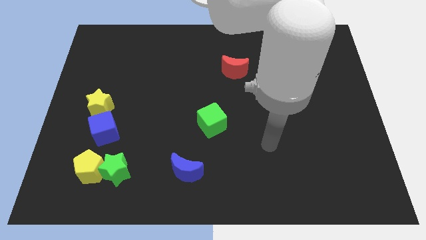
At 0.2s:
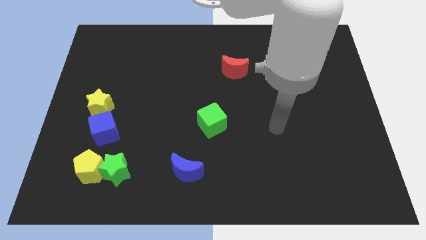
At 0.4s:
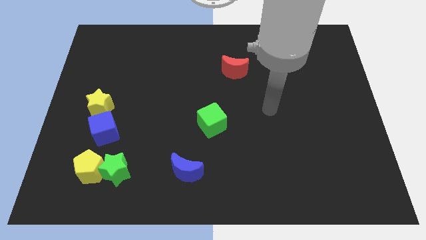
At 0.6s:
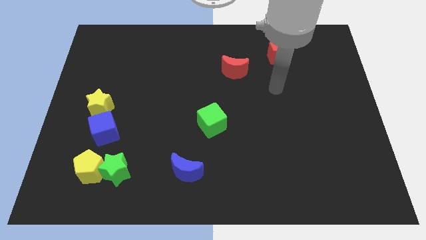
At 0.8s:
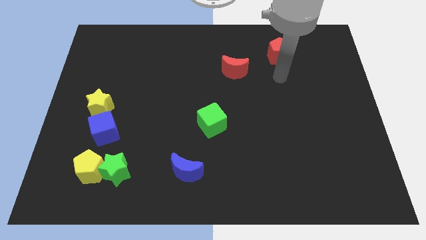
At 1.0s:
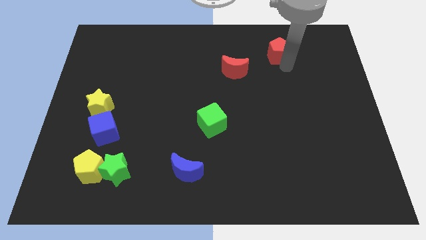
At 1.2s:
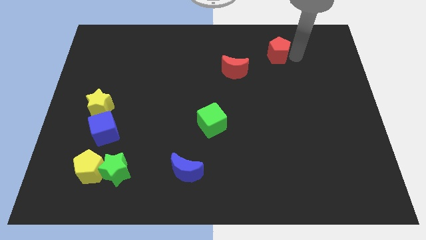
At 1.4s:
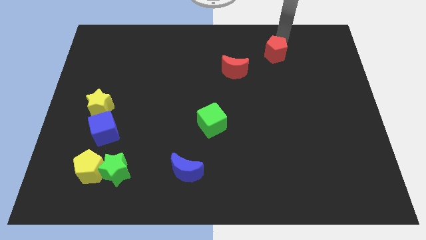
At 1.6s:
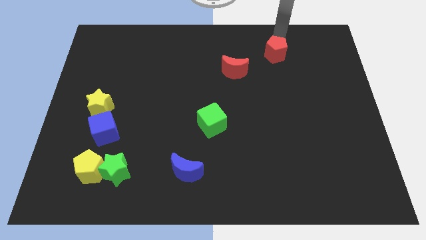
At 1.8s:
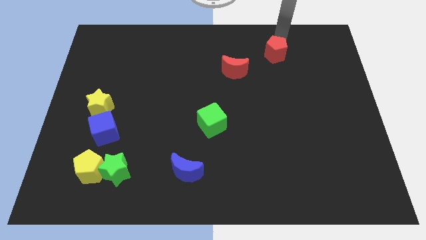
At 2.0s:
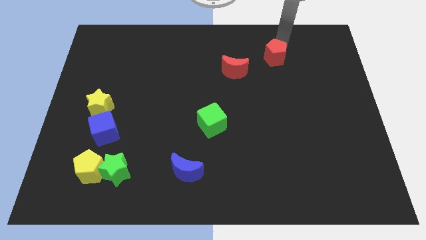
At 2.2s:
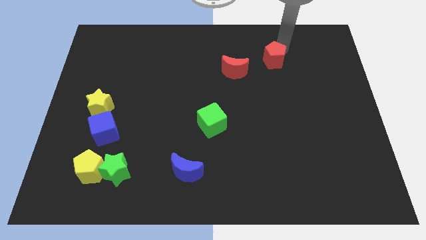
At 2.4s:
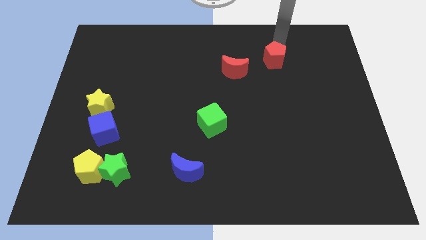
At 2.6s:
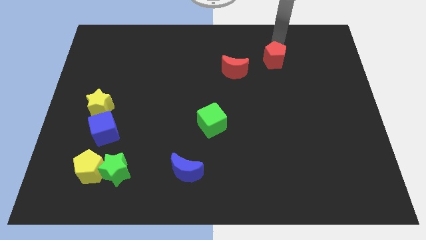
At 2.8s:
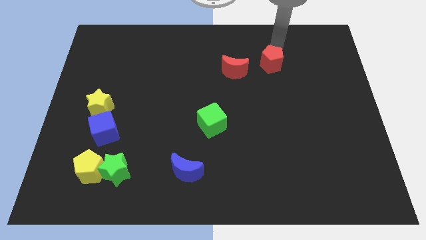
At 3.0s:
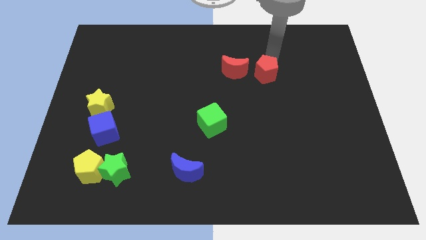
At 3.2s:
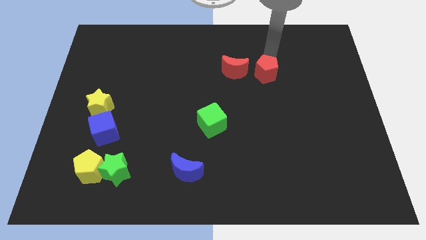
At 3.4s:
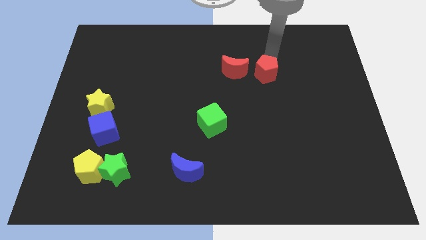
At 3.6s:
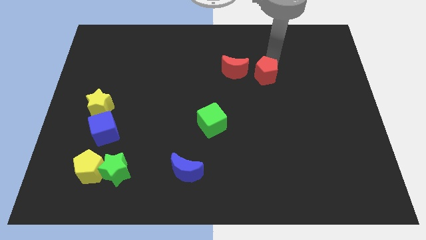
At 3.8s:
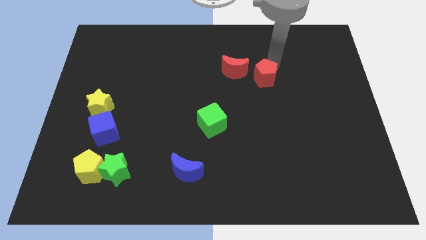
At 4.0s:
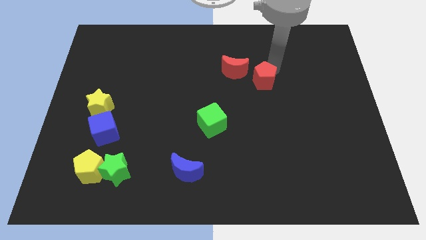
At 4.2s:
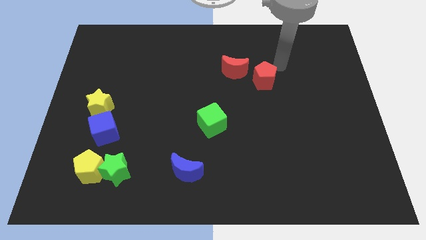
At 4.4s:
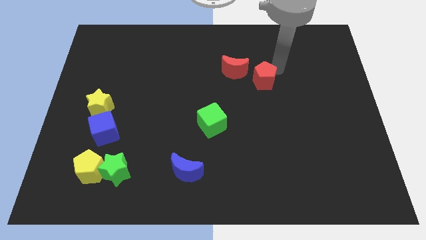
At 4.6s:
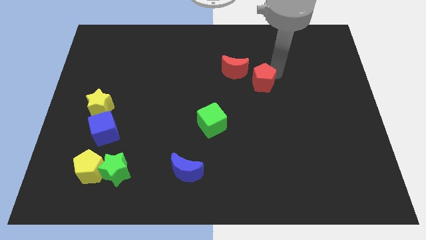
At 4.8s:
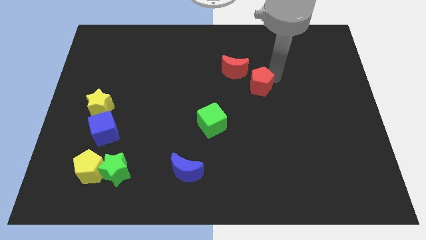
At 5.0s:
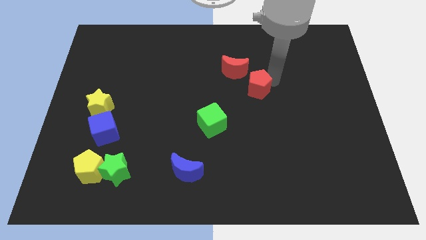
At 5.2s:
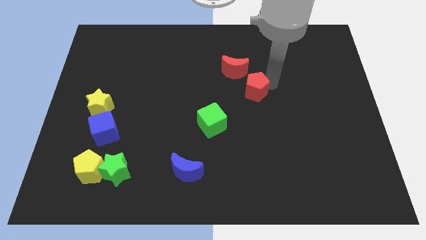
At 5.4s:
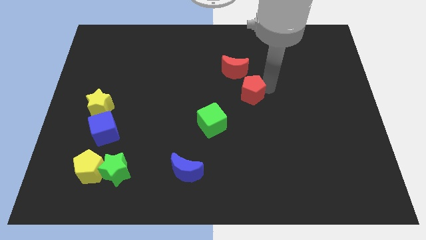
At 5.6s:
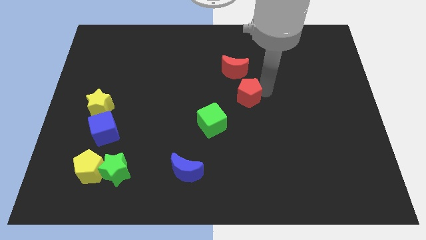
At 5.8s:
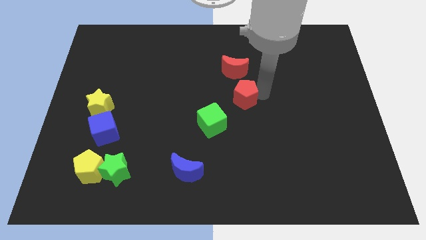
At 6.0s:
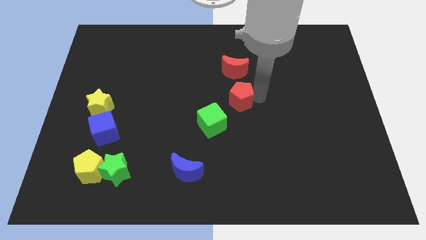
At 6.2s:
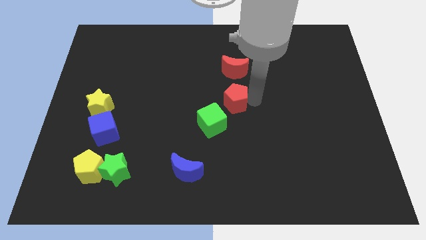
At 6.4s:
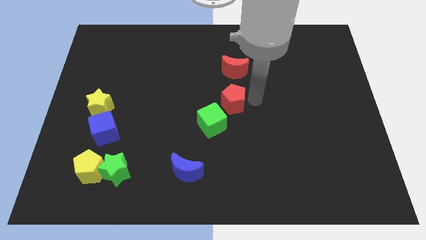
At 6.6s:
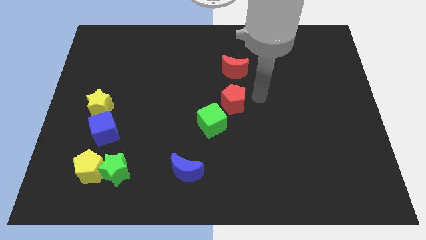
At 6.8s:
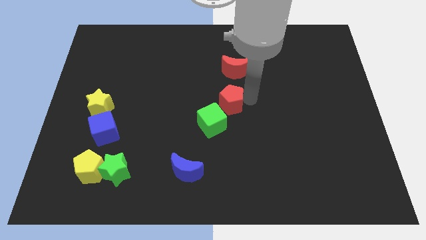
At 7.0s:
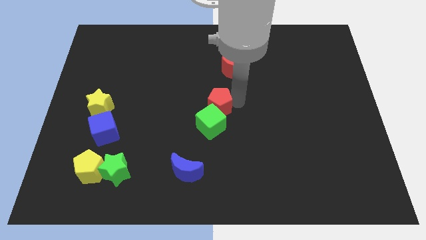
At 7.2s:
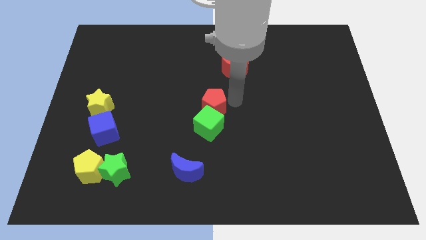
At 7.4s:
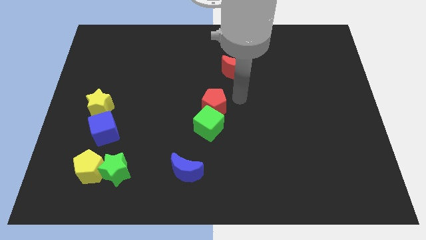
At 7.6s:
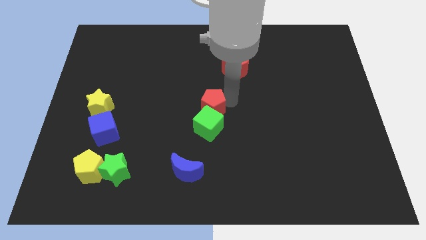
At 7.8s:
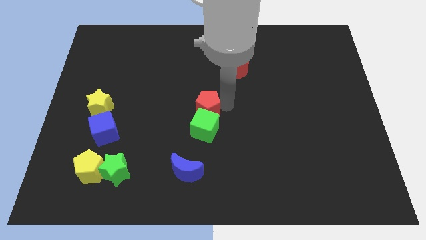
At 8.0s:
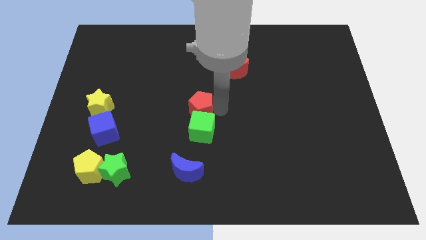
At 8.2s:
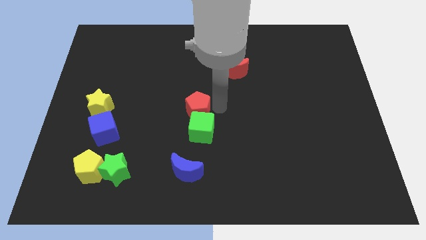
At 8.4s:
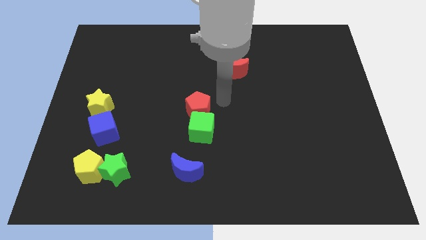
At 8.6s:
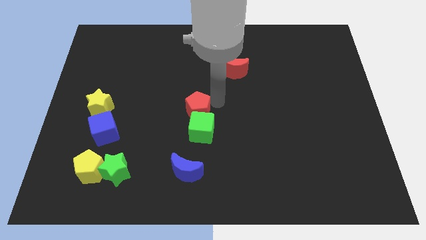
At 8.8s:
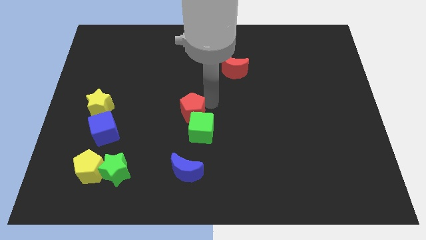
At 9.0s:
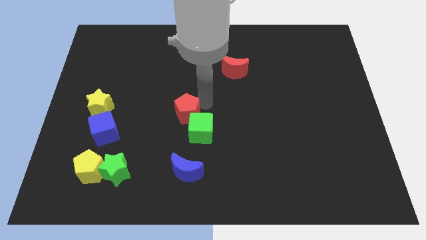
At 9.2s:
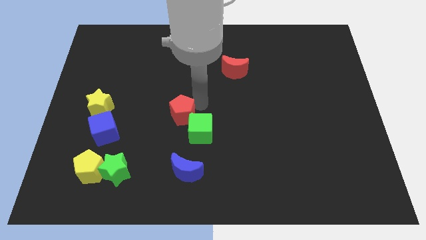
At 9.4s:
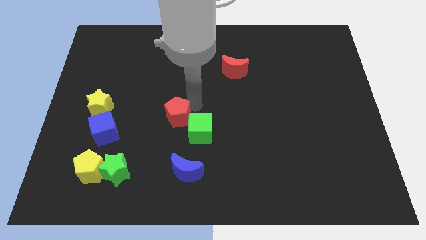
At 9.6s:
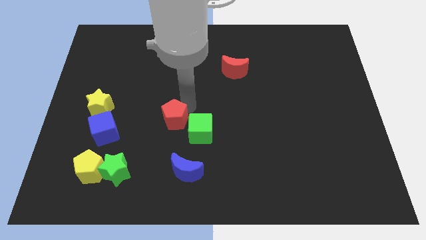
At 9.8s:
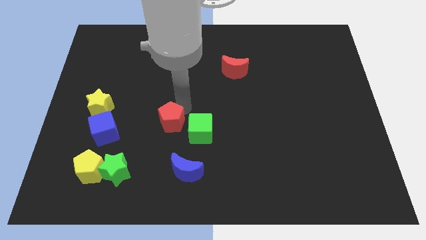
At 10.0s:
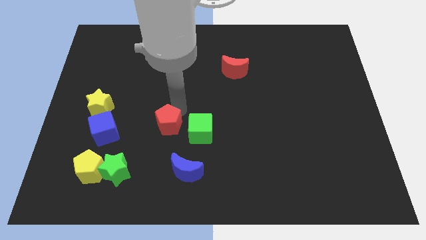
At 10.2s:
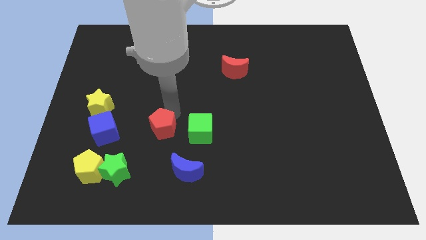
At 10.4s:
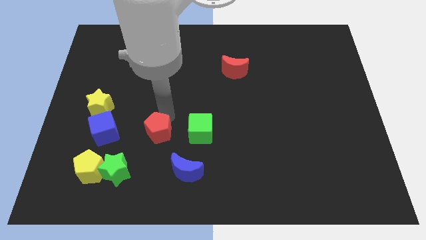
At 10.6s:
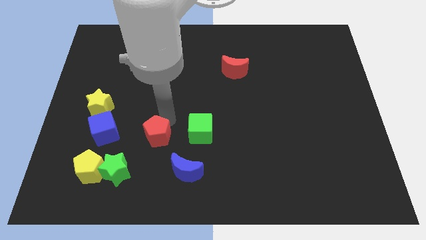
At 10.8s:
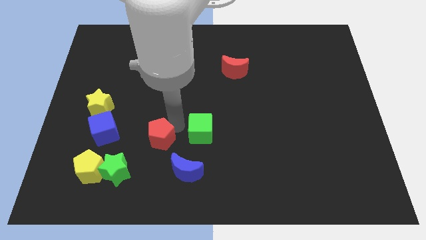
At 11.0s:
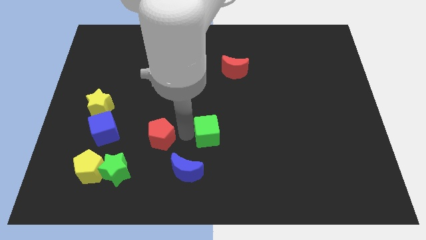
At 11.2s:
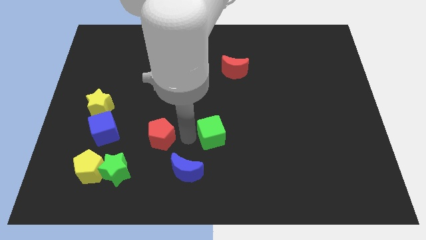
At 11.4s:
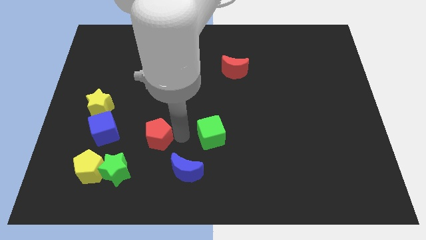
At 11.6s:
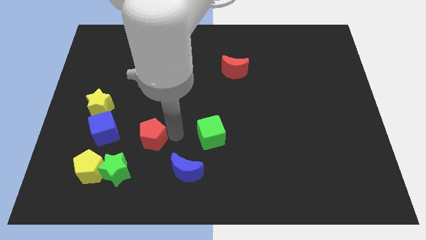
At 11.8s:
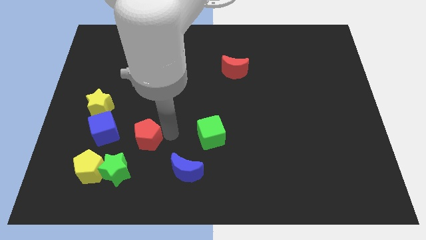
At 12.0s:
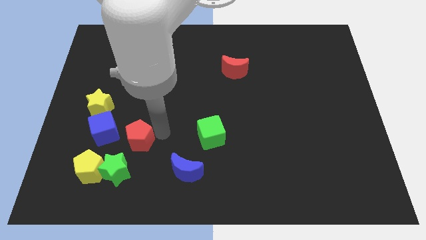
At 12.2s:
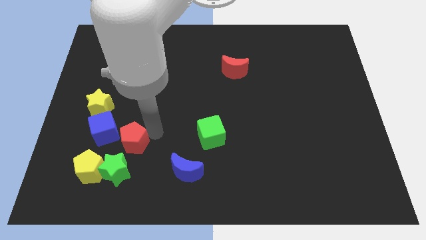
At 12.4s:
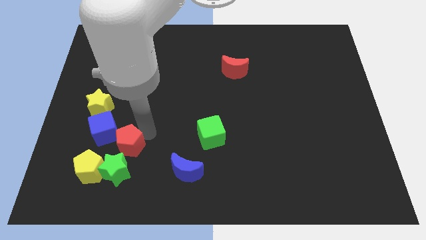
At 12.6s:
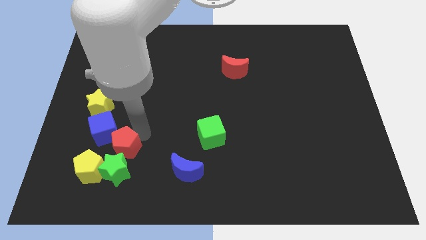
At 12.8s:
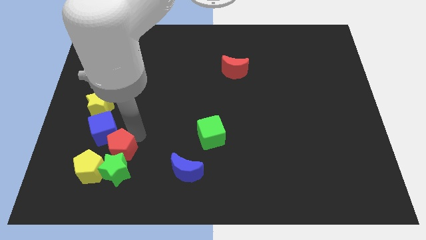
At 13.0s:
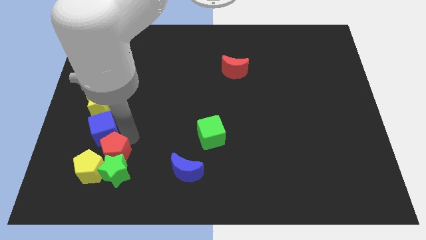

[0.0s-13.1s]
push the red pentagon towards the yellow pentagon

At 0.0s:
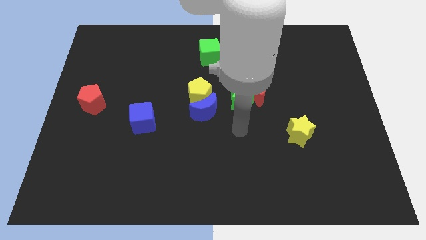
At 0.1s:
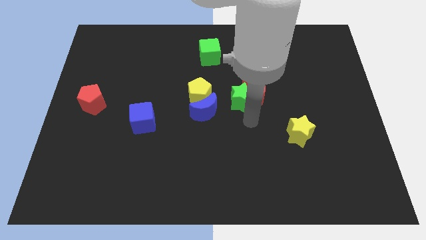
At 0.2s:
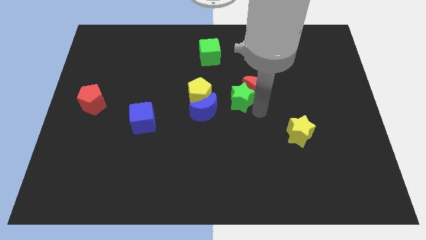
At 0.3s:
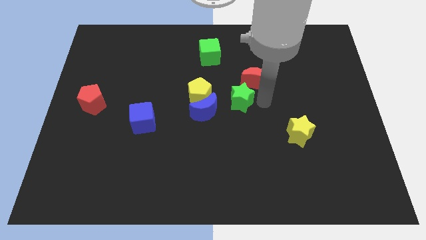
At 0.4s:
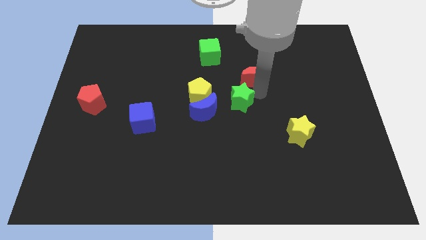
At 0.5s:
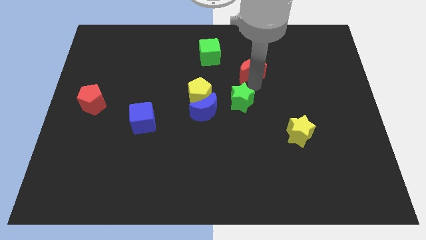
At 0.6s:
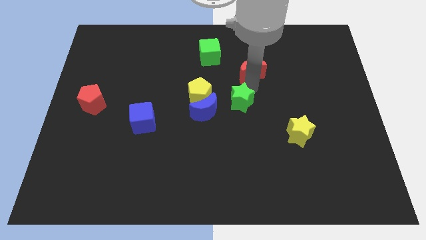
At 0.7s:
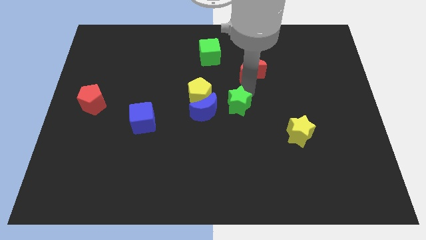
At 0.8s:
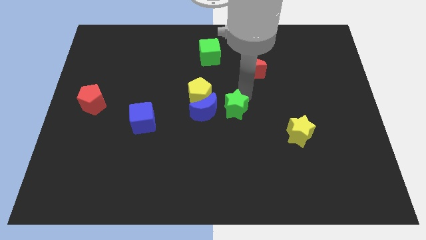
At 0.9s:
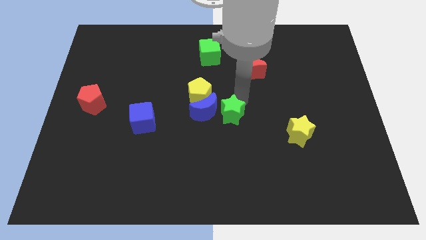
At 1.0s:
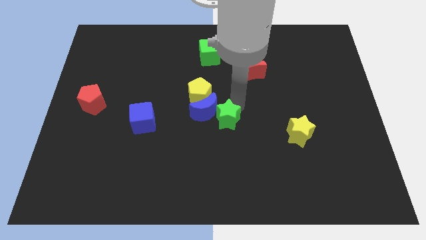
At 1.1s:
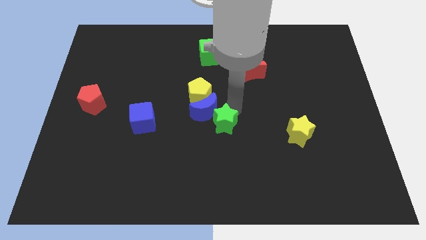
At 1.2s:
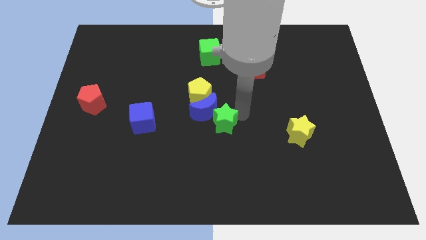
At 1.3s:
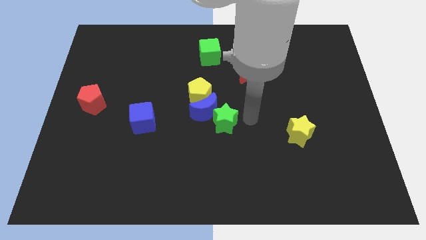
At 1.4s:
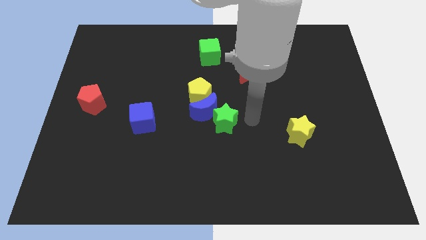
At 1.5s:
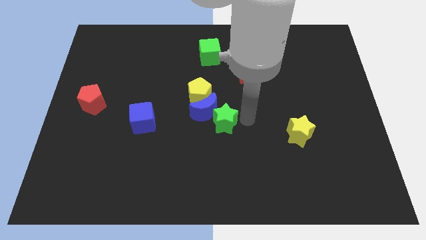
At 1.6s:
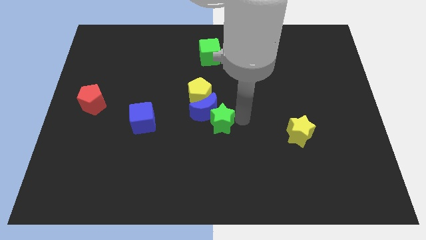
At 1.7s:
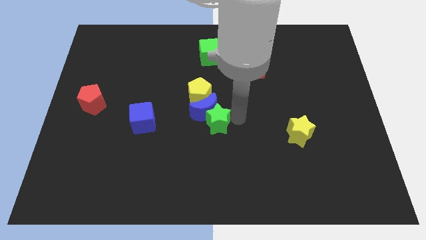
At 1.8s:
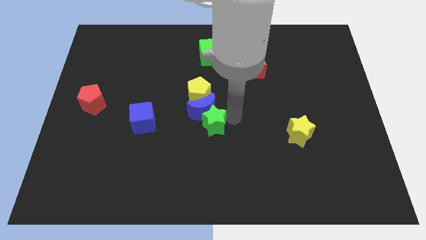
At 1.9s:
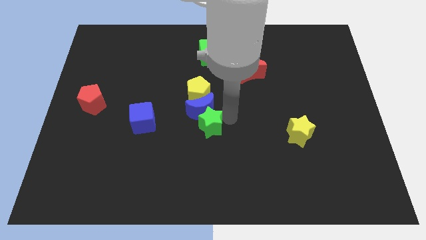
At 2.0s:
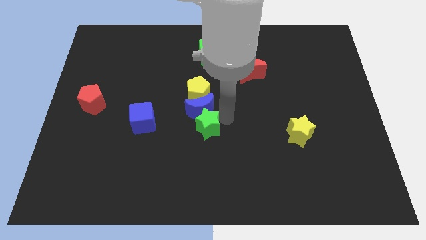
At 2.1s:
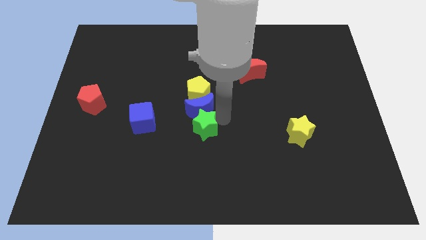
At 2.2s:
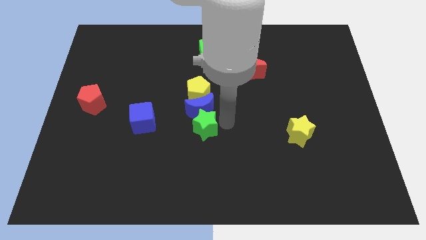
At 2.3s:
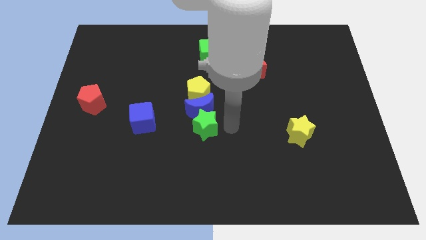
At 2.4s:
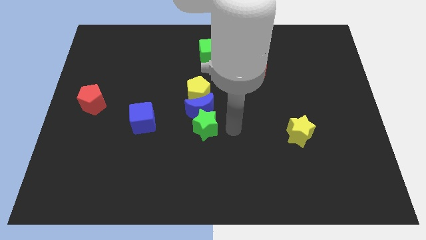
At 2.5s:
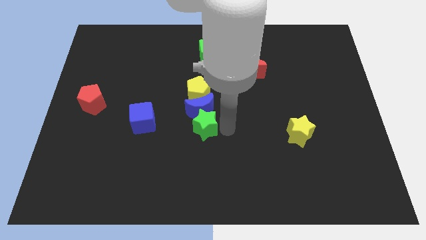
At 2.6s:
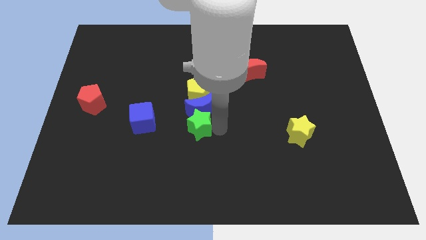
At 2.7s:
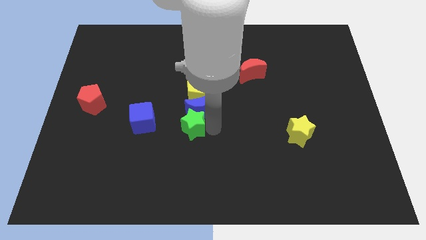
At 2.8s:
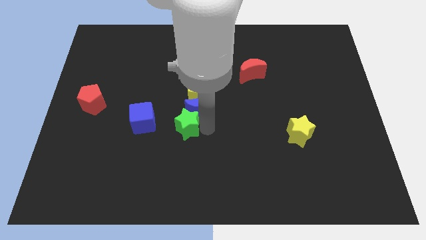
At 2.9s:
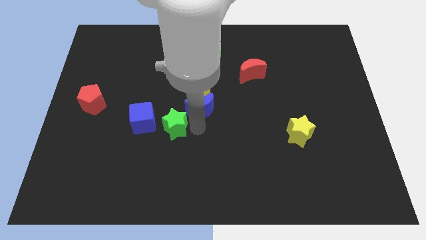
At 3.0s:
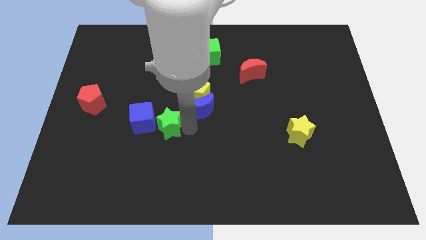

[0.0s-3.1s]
push the green star next to the blue cube
